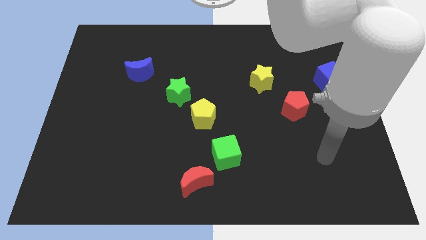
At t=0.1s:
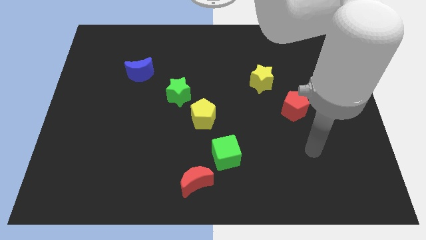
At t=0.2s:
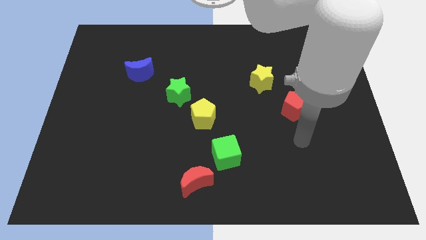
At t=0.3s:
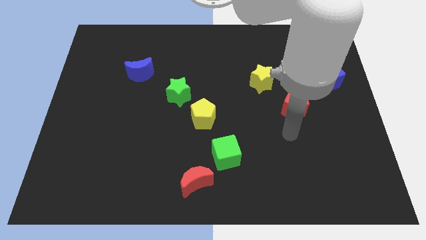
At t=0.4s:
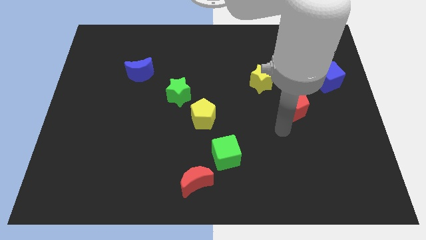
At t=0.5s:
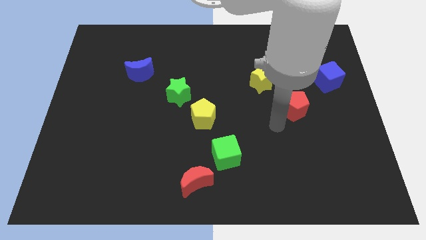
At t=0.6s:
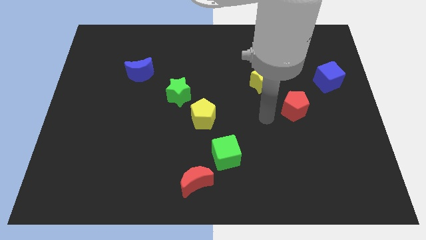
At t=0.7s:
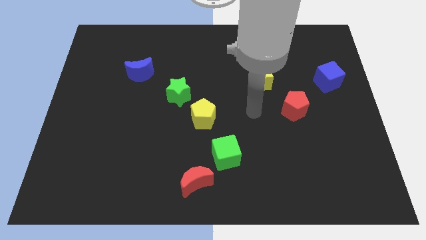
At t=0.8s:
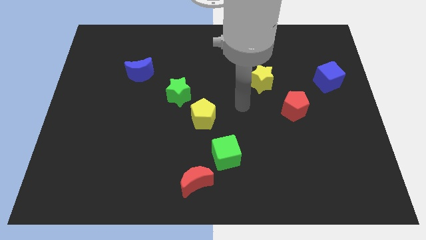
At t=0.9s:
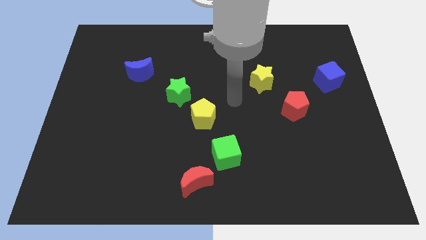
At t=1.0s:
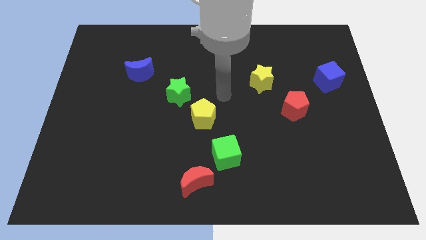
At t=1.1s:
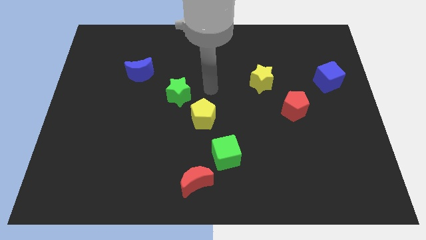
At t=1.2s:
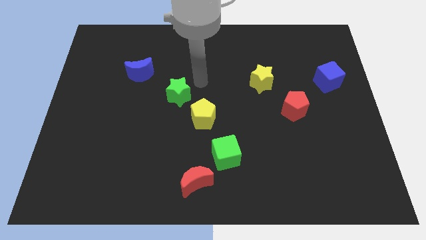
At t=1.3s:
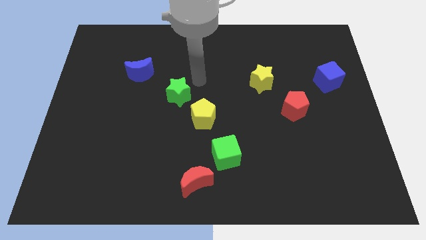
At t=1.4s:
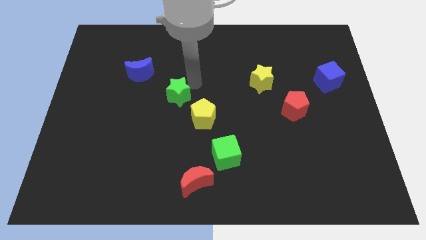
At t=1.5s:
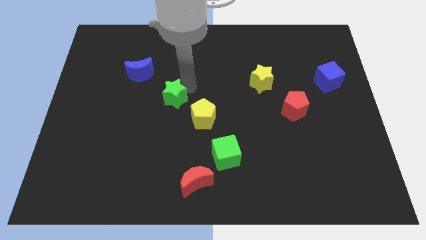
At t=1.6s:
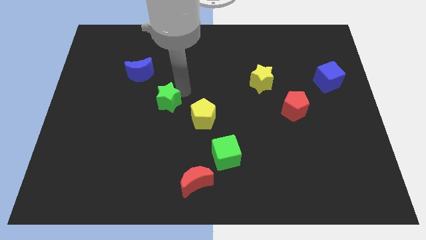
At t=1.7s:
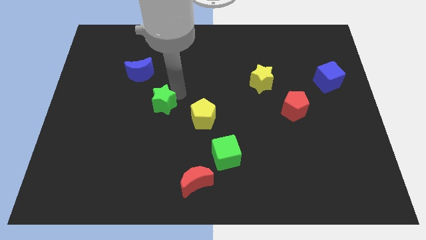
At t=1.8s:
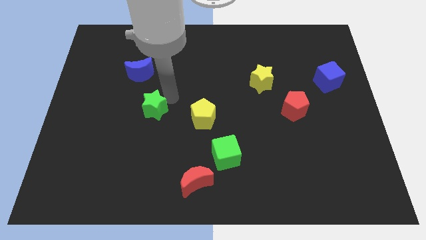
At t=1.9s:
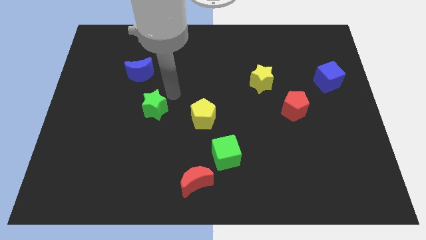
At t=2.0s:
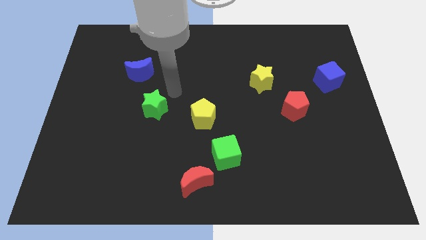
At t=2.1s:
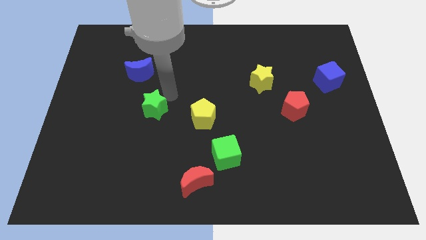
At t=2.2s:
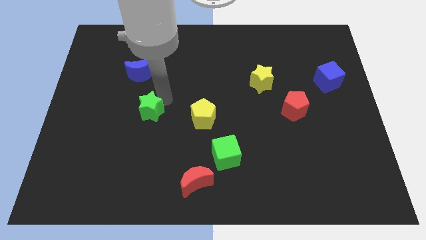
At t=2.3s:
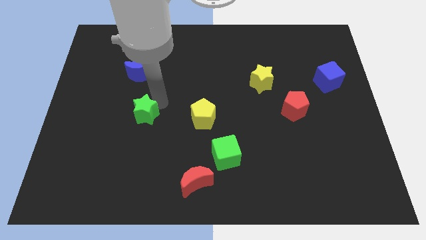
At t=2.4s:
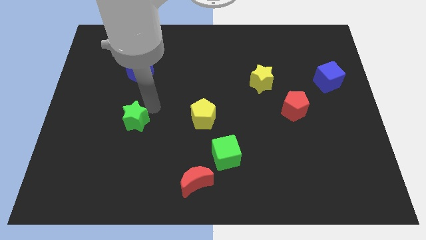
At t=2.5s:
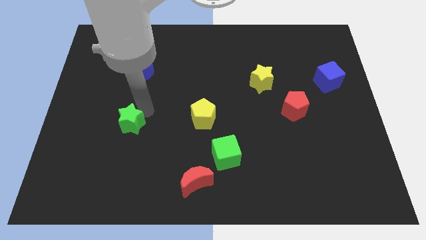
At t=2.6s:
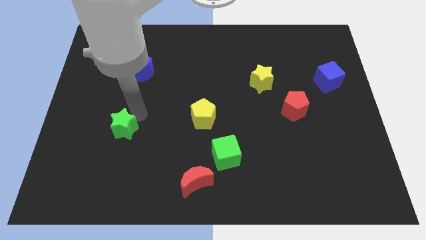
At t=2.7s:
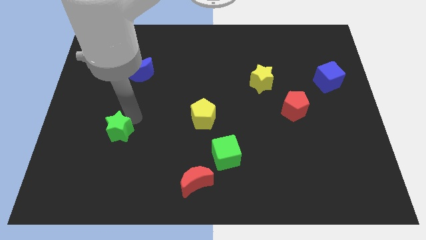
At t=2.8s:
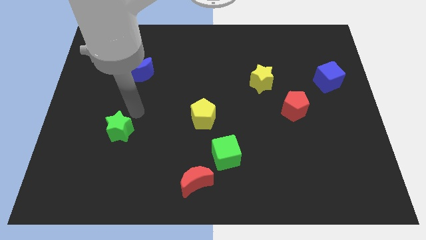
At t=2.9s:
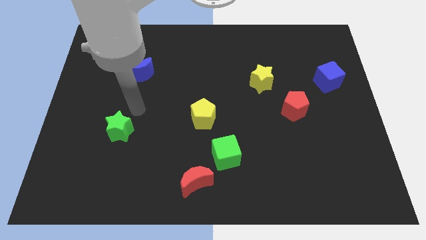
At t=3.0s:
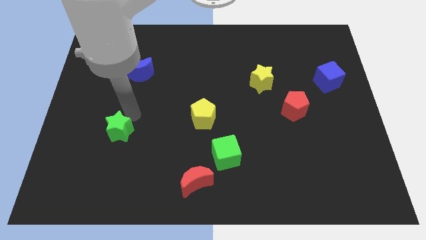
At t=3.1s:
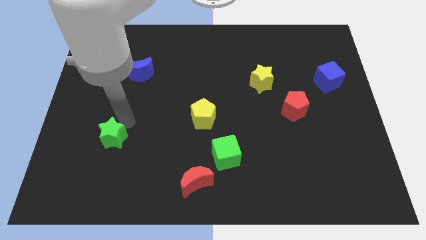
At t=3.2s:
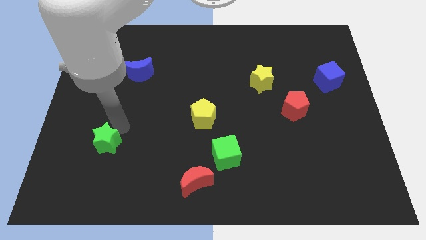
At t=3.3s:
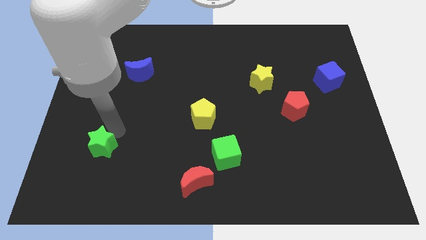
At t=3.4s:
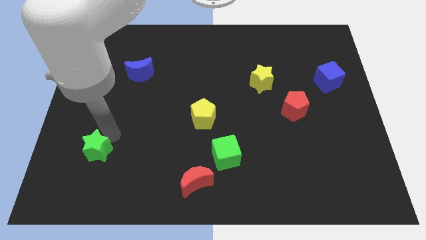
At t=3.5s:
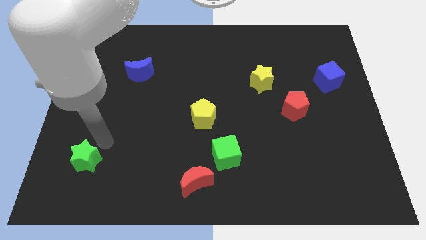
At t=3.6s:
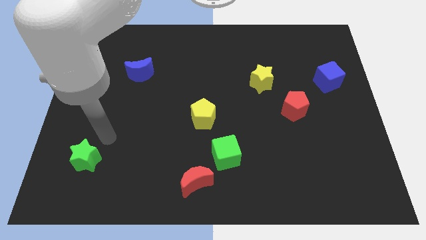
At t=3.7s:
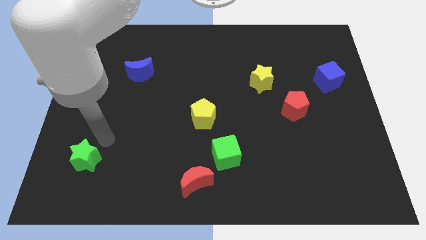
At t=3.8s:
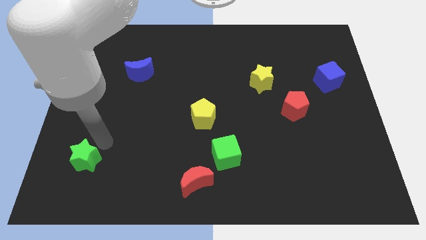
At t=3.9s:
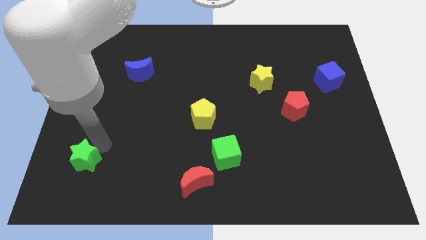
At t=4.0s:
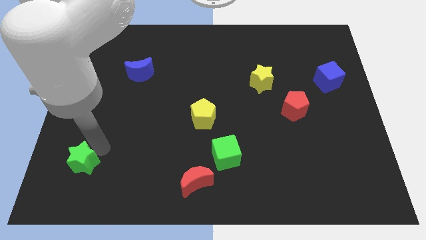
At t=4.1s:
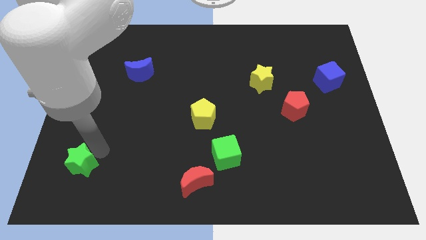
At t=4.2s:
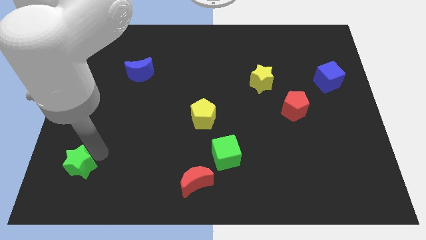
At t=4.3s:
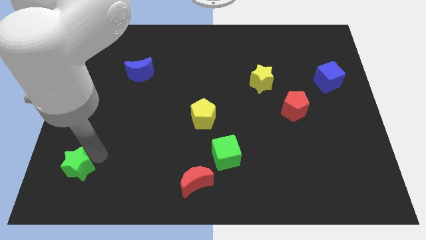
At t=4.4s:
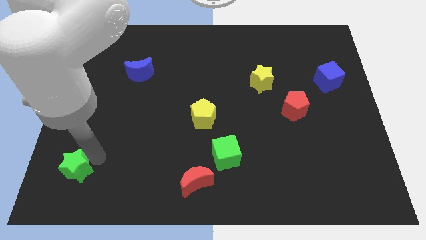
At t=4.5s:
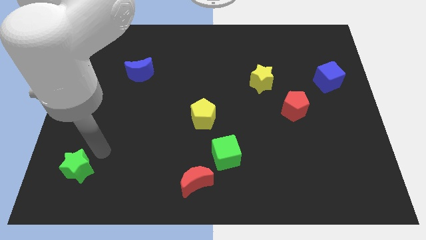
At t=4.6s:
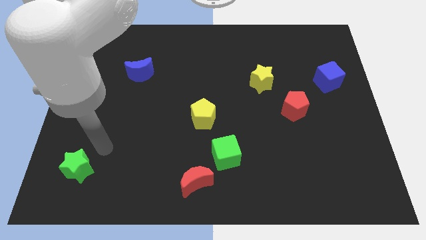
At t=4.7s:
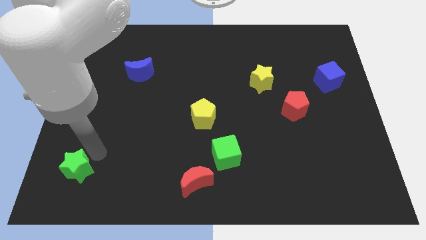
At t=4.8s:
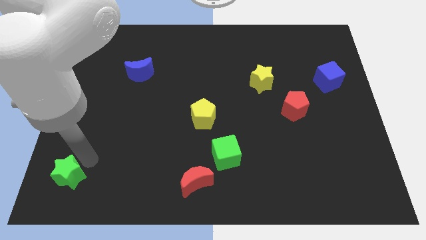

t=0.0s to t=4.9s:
push the green star to the lower left corner

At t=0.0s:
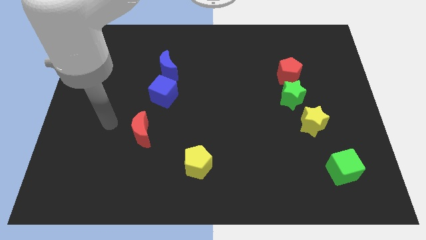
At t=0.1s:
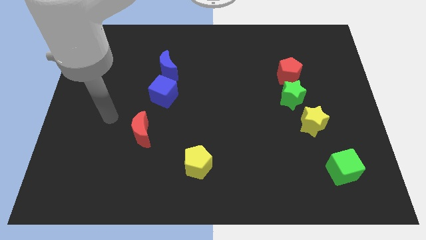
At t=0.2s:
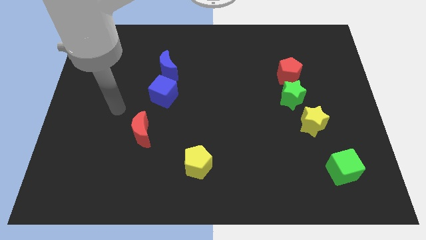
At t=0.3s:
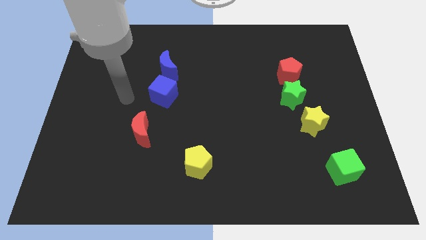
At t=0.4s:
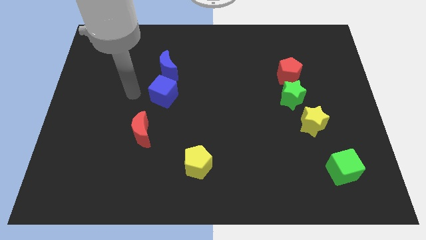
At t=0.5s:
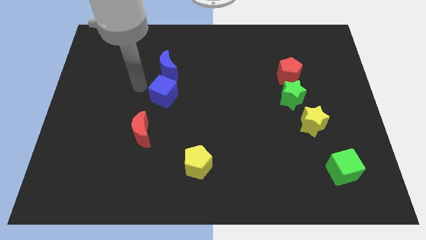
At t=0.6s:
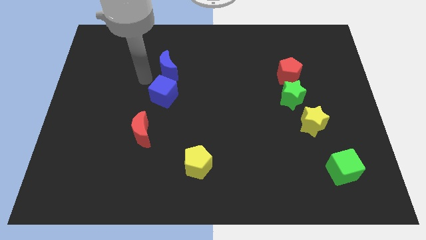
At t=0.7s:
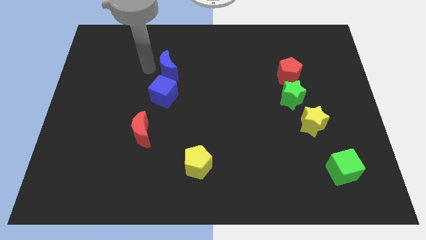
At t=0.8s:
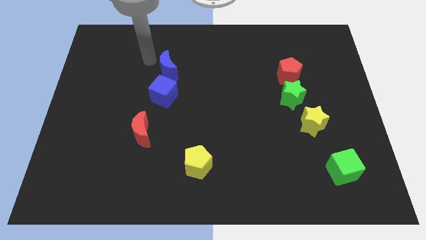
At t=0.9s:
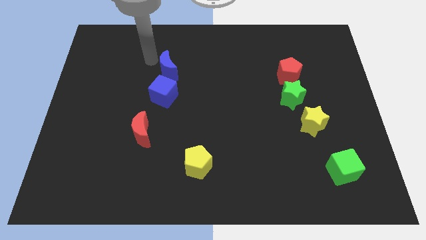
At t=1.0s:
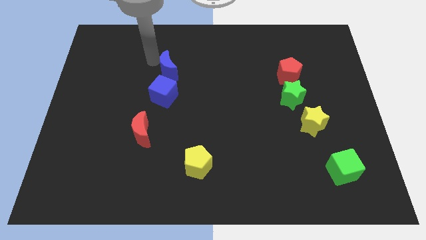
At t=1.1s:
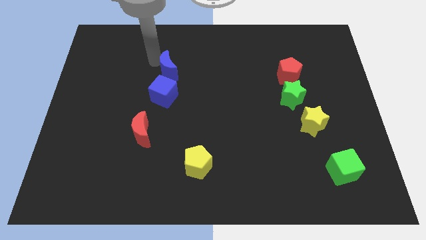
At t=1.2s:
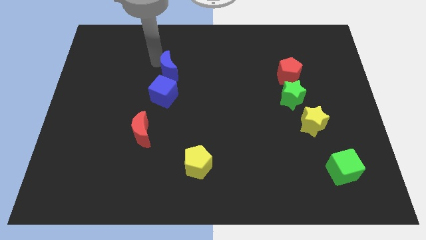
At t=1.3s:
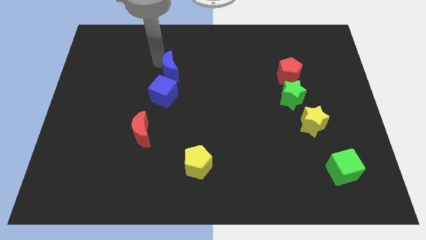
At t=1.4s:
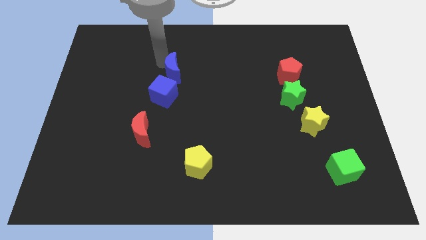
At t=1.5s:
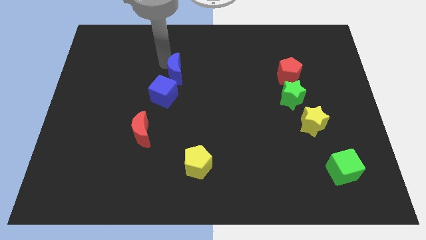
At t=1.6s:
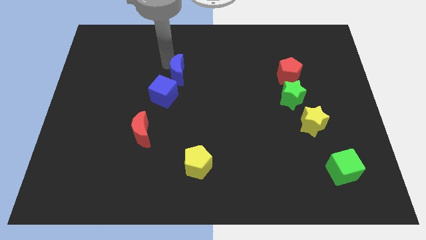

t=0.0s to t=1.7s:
move the blue moon to the center
